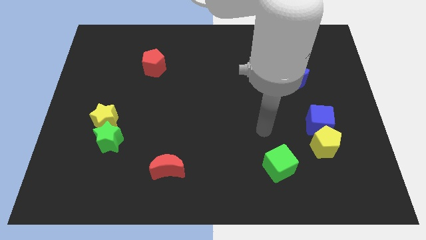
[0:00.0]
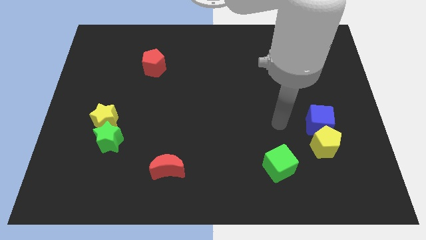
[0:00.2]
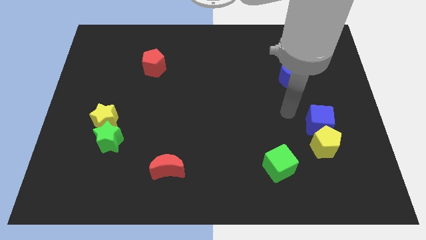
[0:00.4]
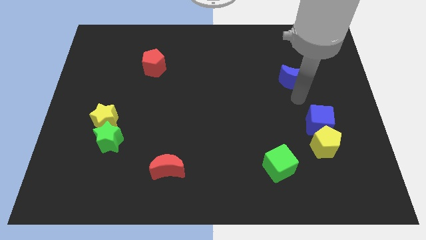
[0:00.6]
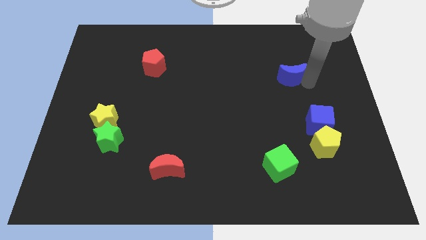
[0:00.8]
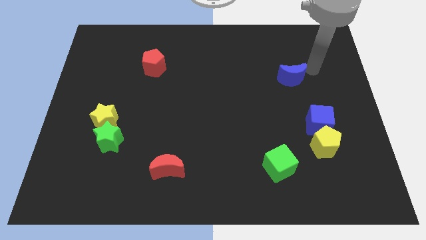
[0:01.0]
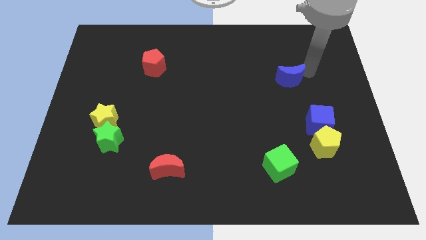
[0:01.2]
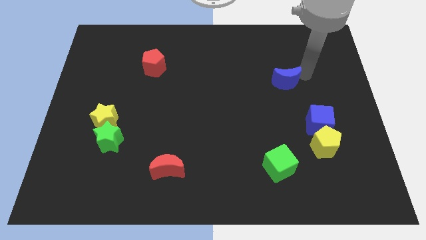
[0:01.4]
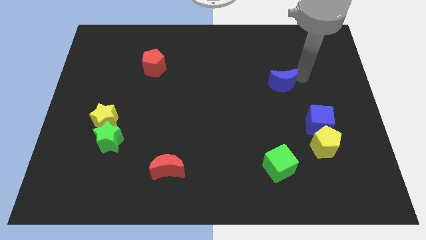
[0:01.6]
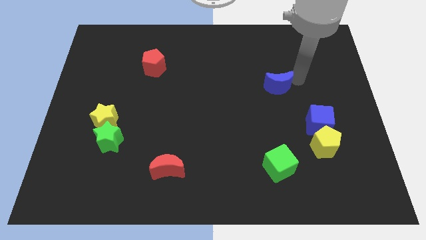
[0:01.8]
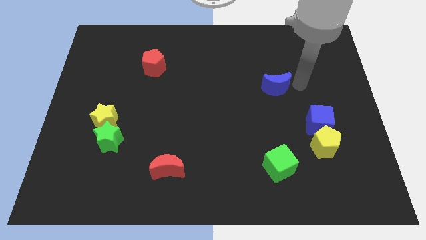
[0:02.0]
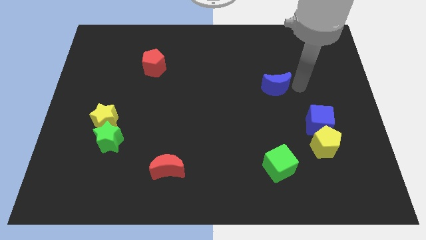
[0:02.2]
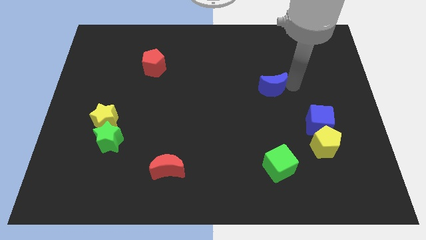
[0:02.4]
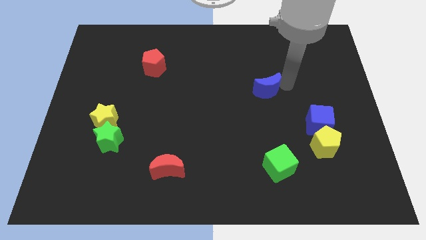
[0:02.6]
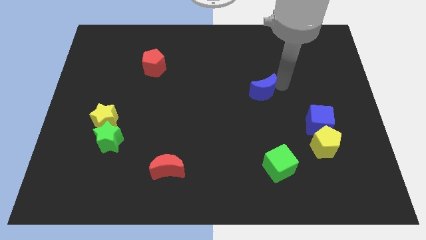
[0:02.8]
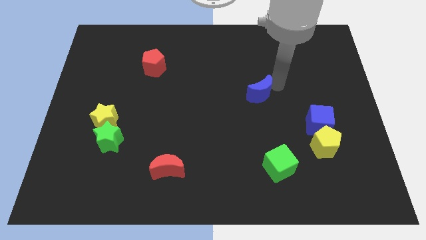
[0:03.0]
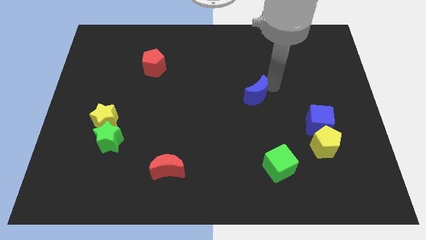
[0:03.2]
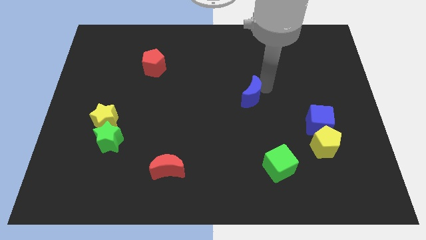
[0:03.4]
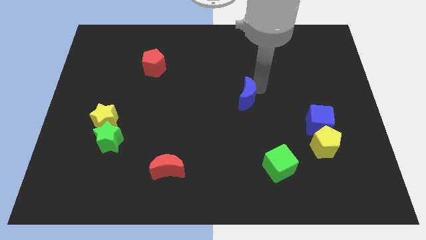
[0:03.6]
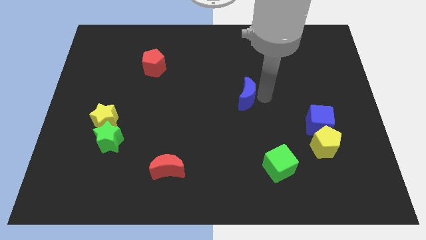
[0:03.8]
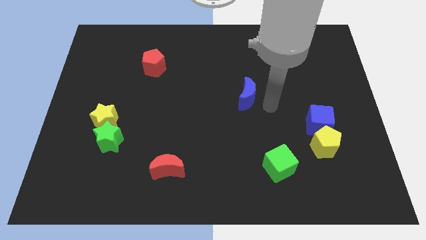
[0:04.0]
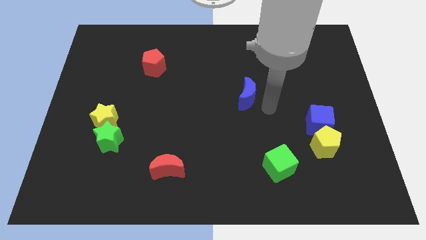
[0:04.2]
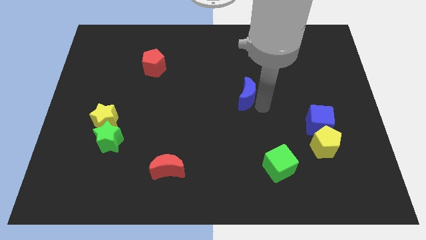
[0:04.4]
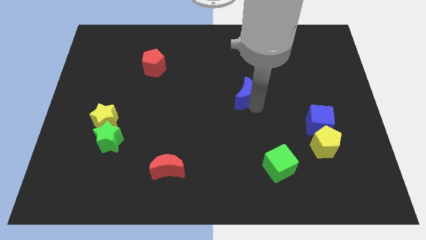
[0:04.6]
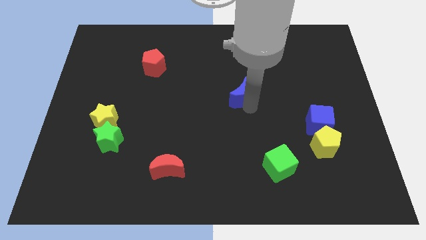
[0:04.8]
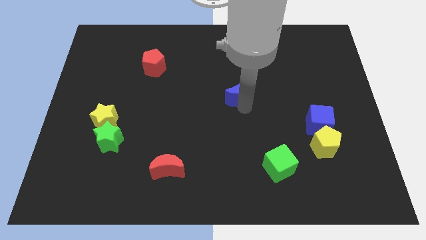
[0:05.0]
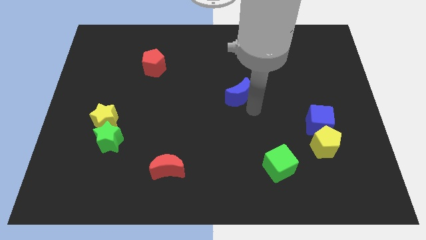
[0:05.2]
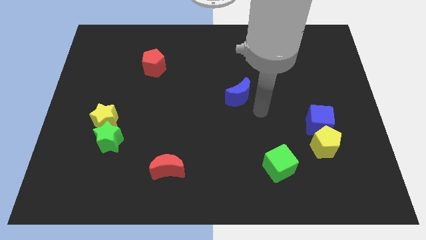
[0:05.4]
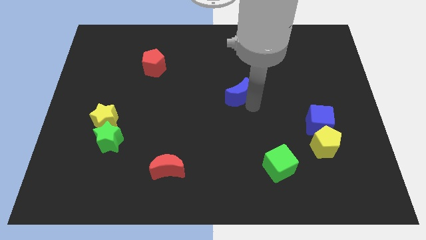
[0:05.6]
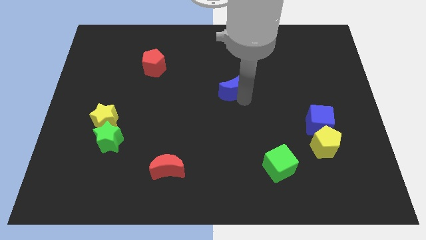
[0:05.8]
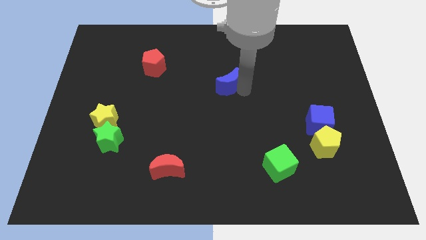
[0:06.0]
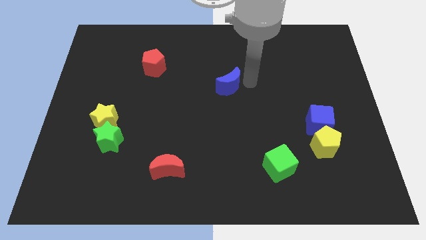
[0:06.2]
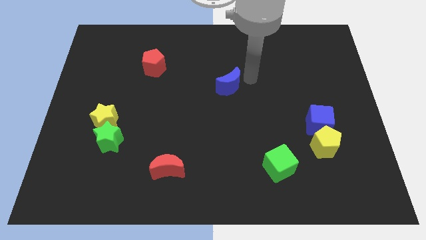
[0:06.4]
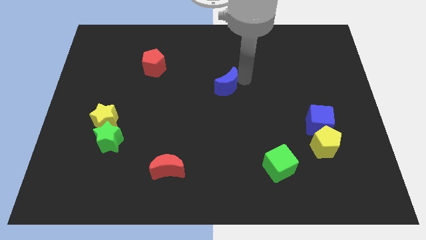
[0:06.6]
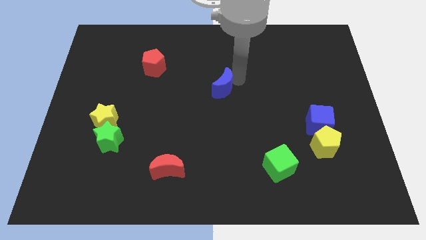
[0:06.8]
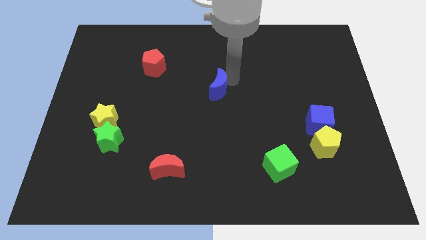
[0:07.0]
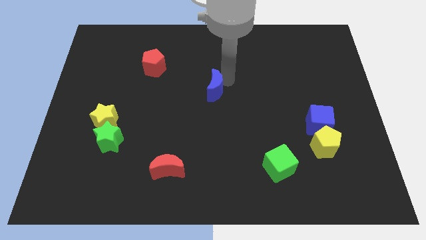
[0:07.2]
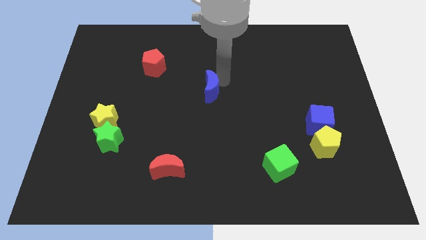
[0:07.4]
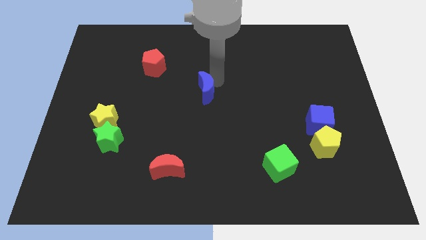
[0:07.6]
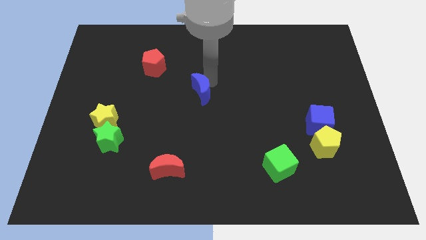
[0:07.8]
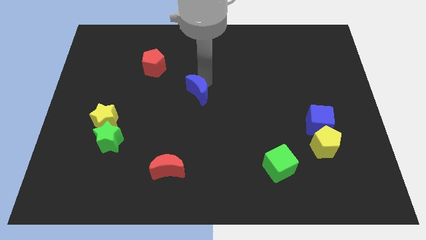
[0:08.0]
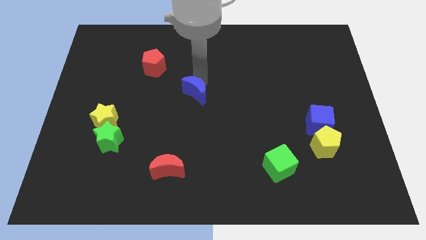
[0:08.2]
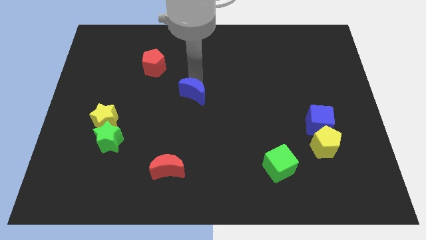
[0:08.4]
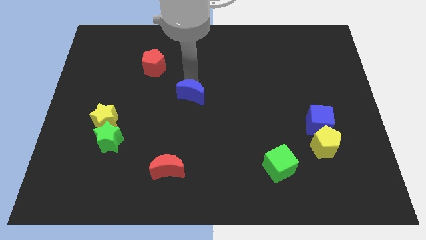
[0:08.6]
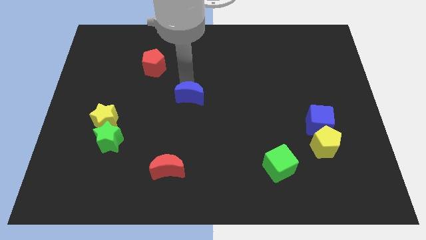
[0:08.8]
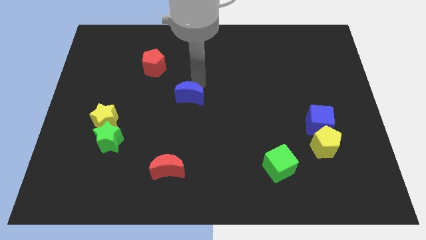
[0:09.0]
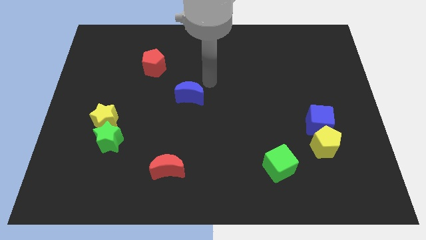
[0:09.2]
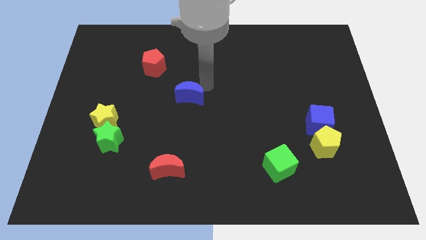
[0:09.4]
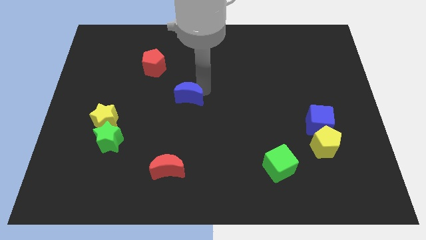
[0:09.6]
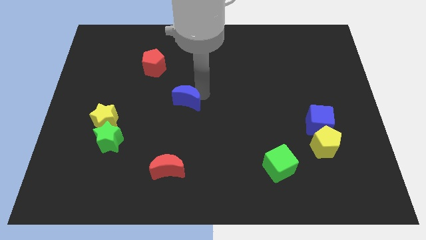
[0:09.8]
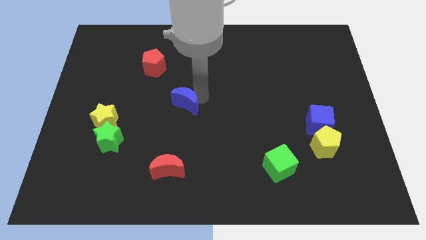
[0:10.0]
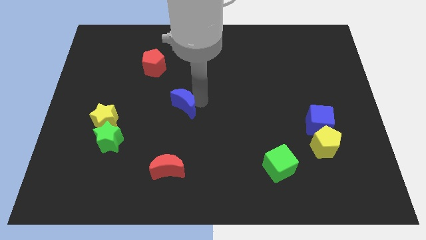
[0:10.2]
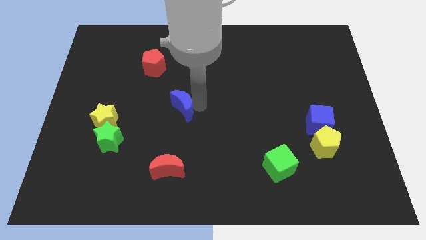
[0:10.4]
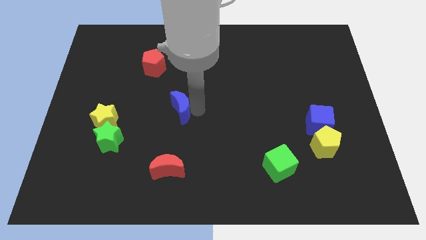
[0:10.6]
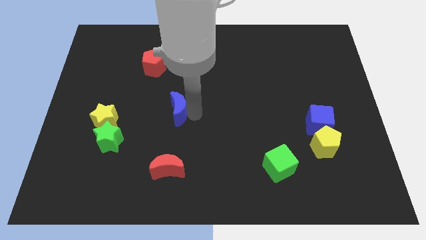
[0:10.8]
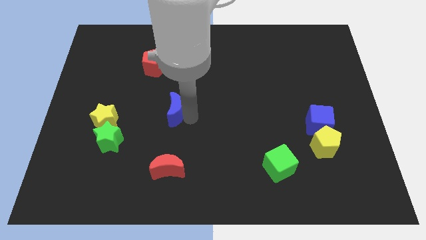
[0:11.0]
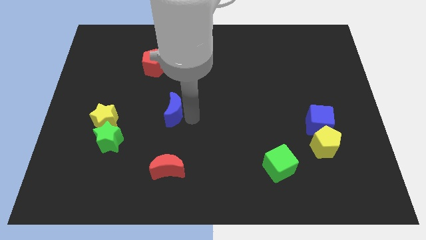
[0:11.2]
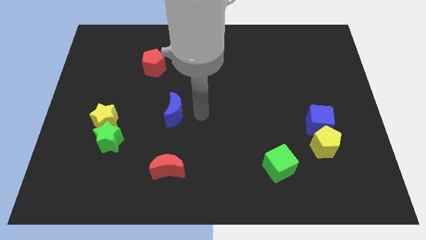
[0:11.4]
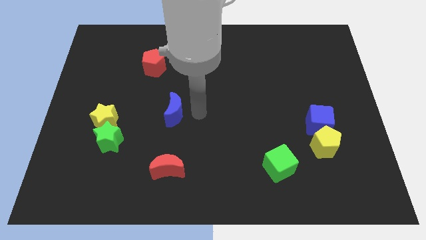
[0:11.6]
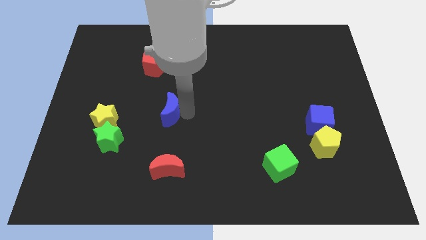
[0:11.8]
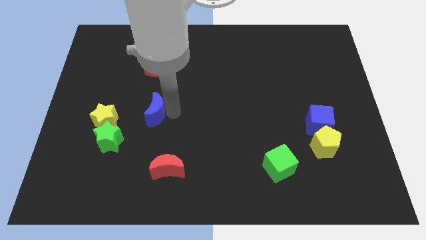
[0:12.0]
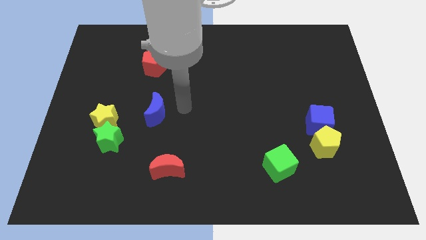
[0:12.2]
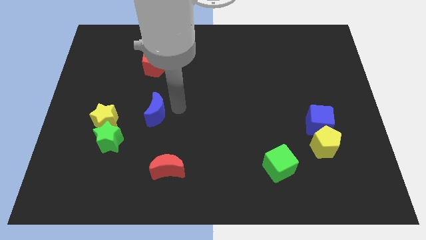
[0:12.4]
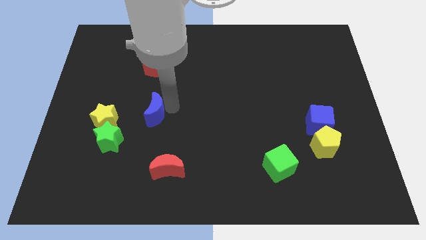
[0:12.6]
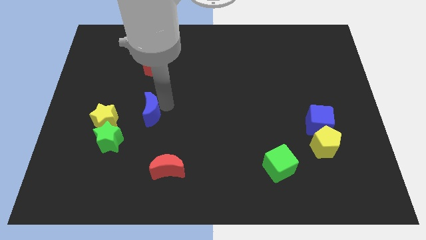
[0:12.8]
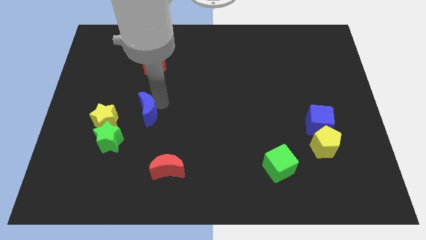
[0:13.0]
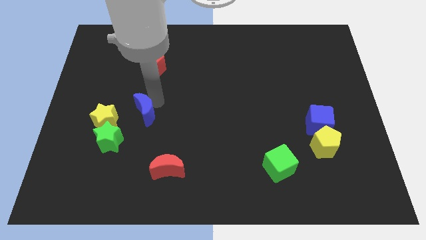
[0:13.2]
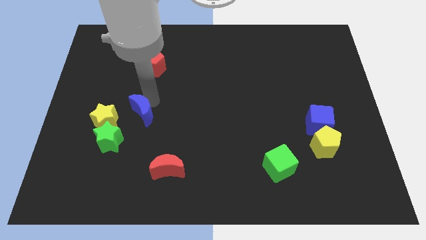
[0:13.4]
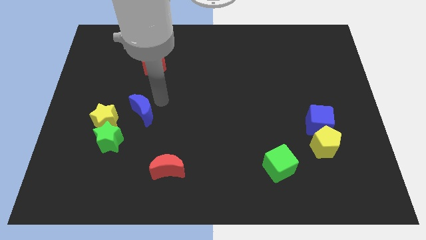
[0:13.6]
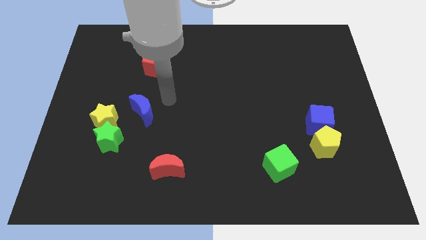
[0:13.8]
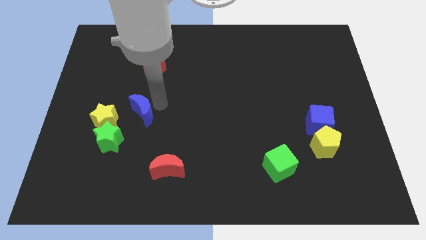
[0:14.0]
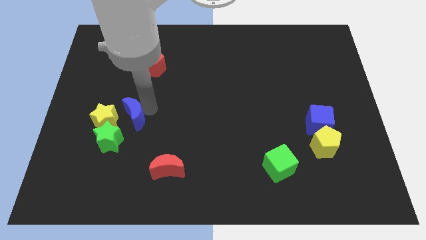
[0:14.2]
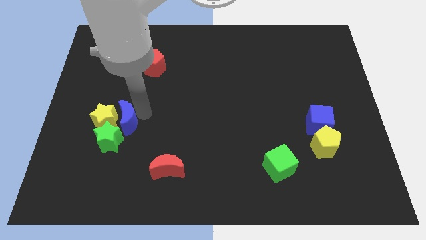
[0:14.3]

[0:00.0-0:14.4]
move the blue moon towards the yellow star

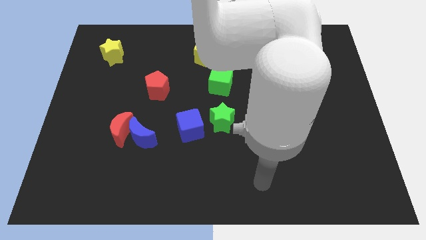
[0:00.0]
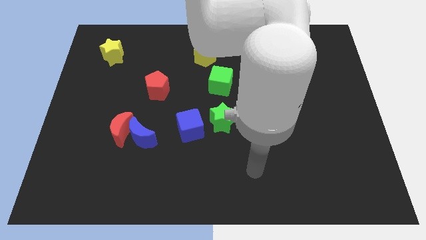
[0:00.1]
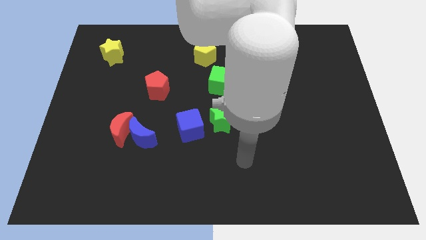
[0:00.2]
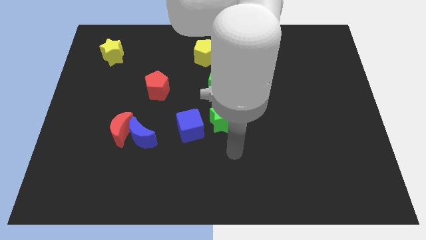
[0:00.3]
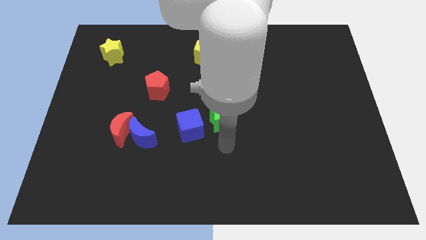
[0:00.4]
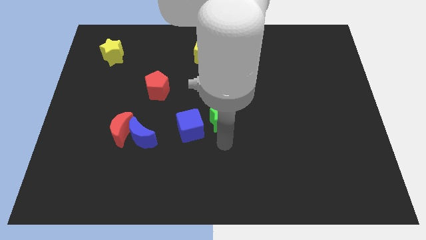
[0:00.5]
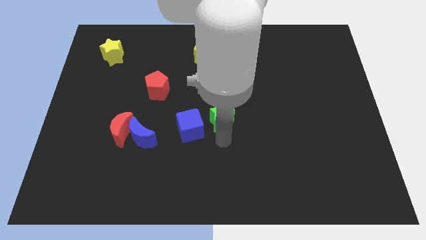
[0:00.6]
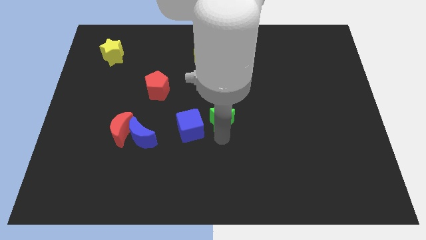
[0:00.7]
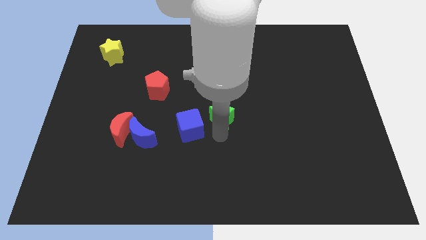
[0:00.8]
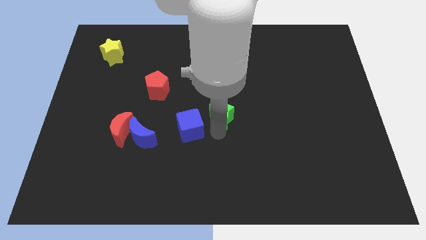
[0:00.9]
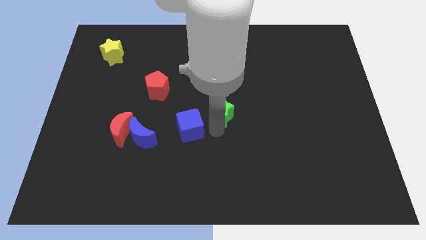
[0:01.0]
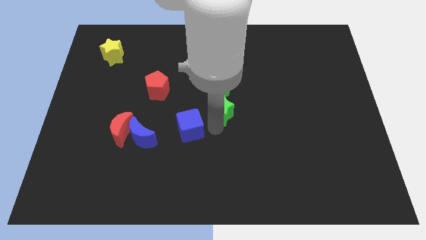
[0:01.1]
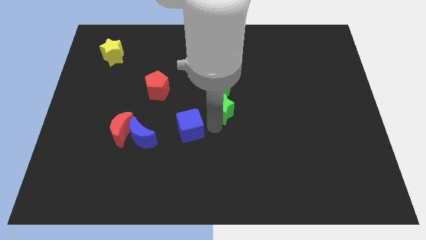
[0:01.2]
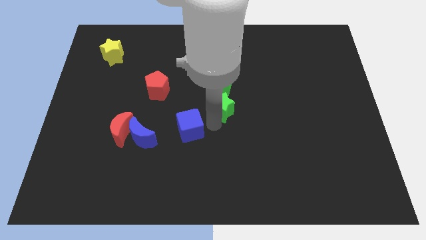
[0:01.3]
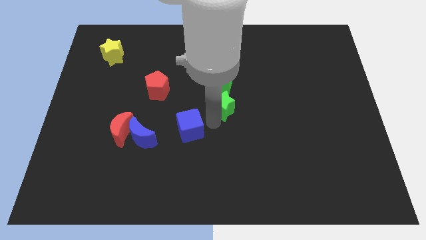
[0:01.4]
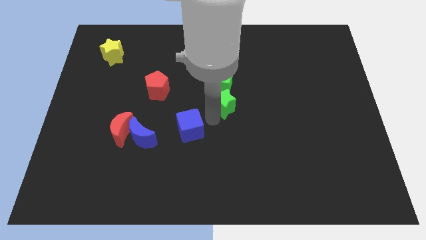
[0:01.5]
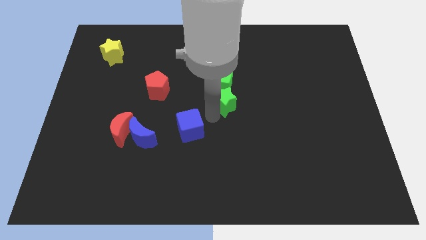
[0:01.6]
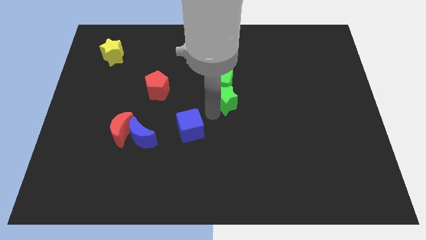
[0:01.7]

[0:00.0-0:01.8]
move the green star close to the green cube
